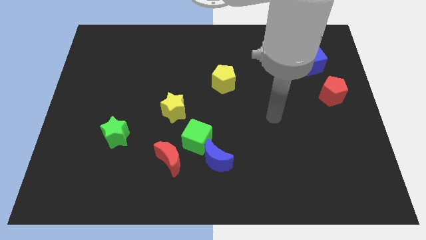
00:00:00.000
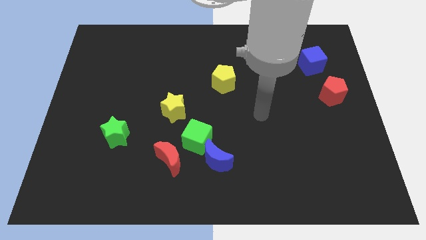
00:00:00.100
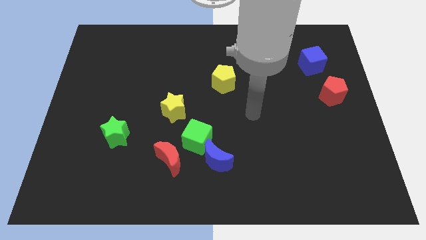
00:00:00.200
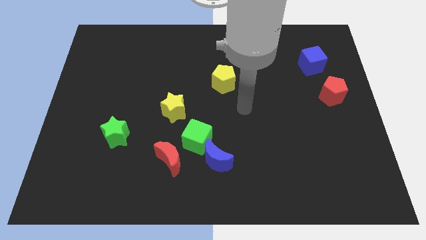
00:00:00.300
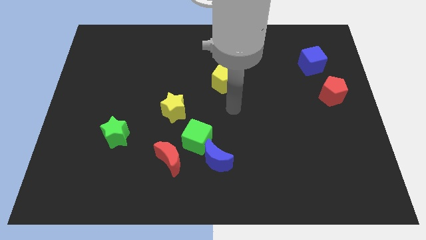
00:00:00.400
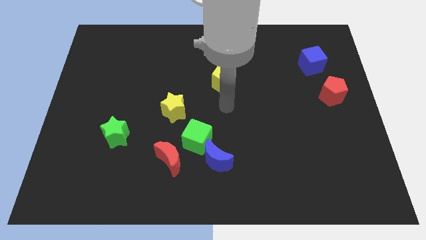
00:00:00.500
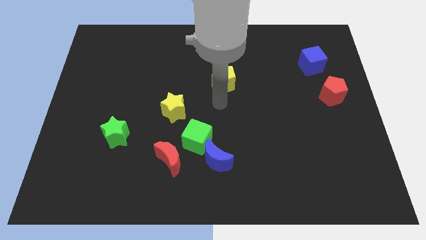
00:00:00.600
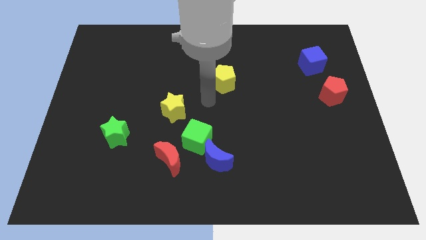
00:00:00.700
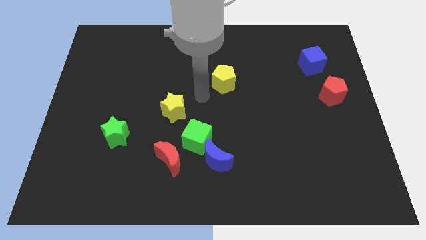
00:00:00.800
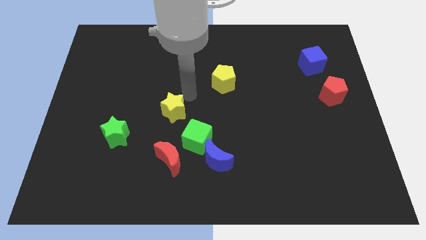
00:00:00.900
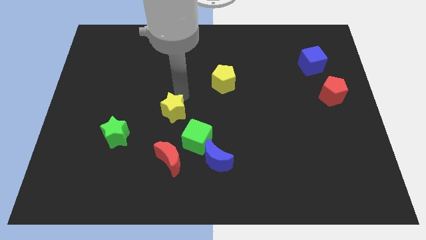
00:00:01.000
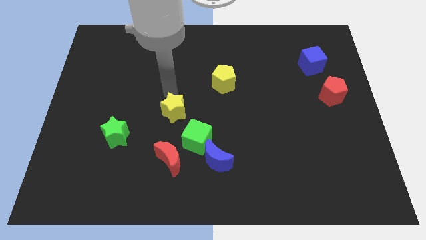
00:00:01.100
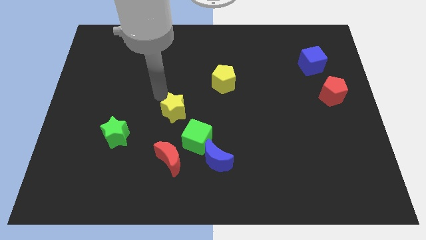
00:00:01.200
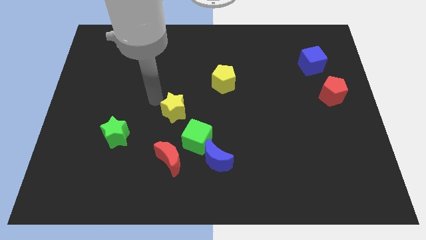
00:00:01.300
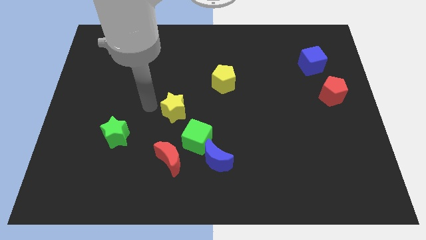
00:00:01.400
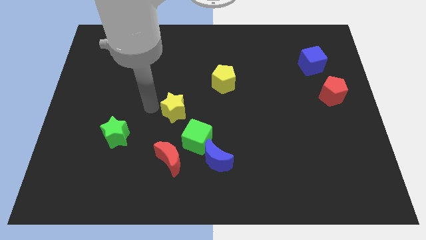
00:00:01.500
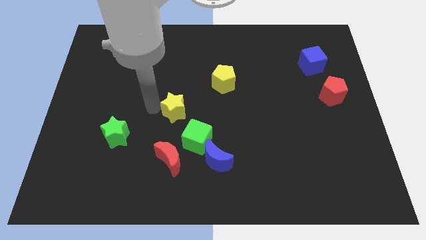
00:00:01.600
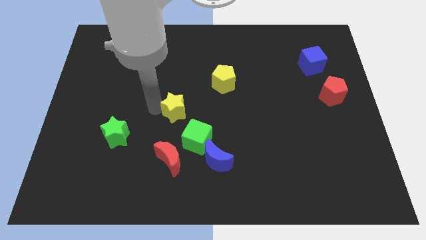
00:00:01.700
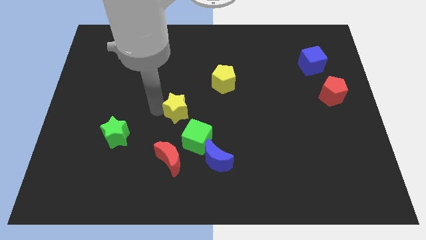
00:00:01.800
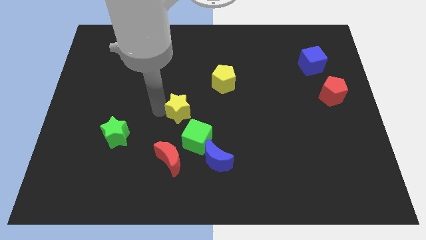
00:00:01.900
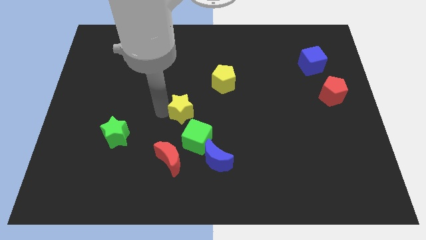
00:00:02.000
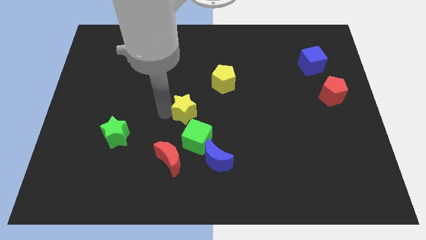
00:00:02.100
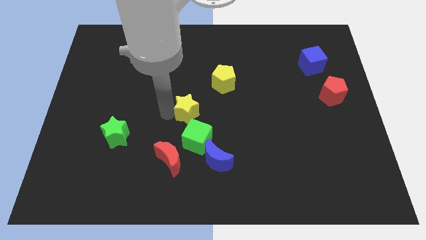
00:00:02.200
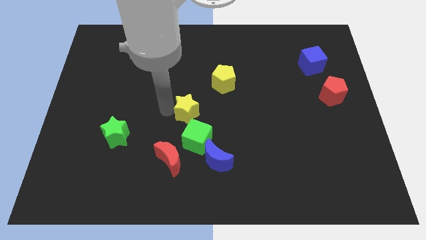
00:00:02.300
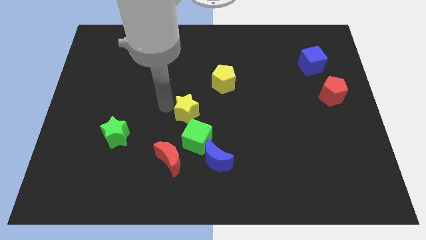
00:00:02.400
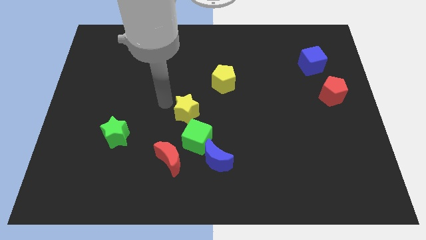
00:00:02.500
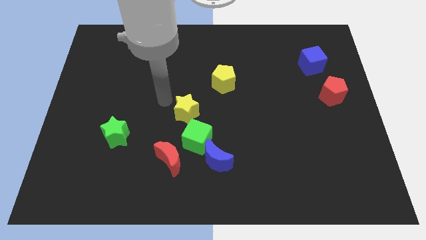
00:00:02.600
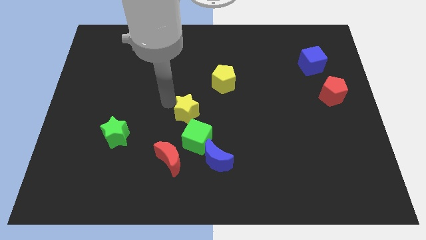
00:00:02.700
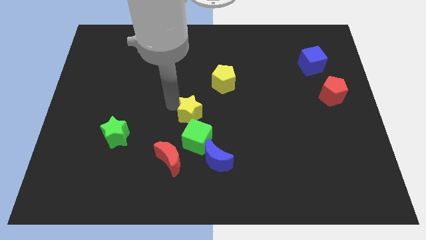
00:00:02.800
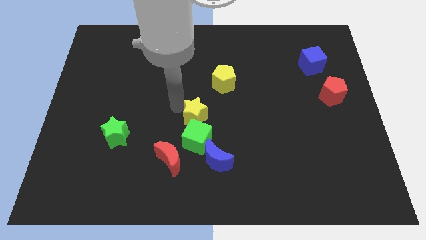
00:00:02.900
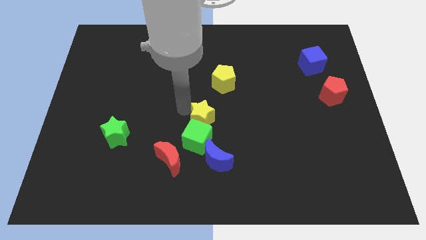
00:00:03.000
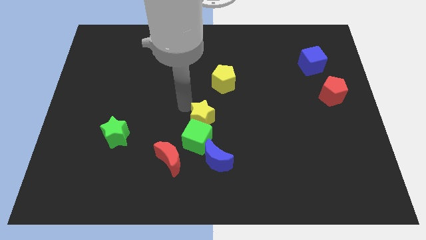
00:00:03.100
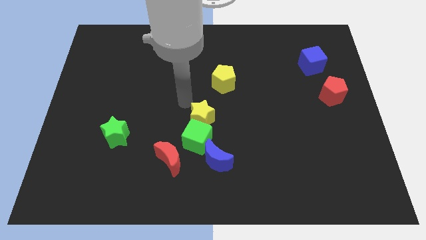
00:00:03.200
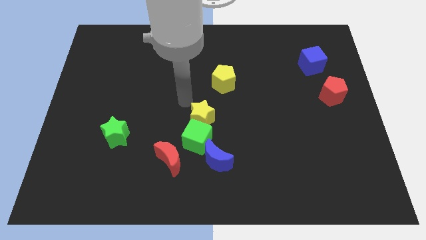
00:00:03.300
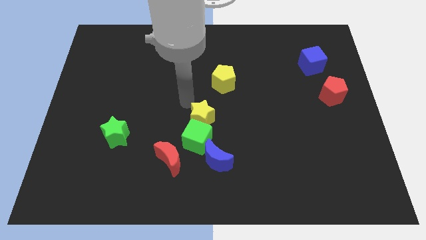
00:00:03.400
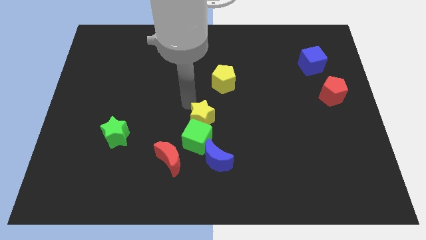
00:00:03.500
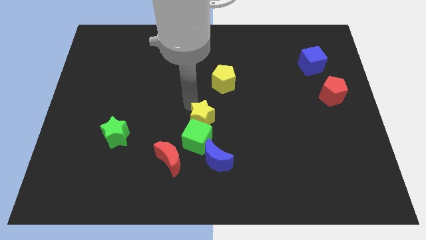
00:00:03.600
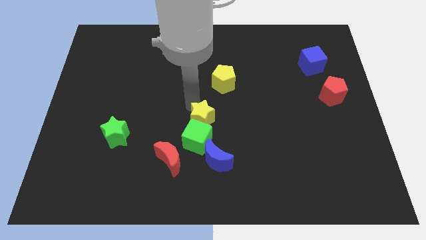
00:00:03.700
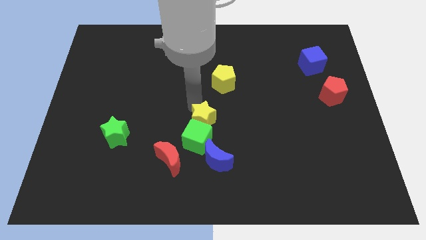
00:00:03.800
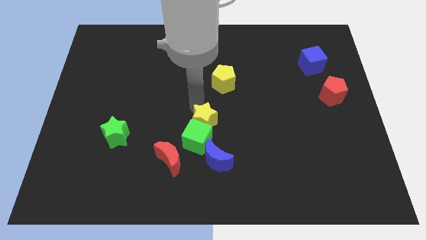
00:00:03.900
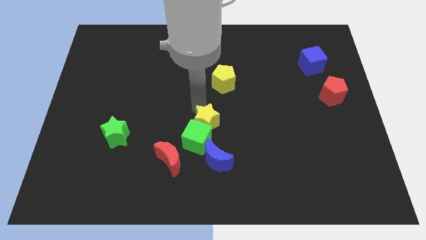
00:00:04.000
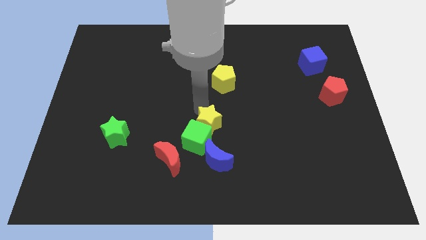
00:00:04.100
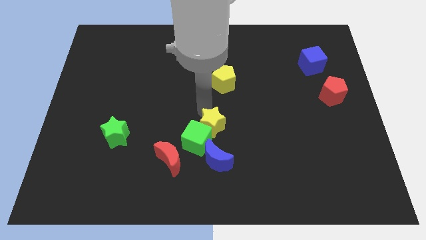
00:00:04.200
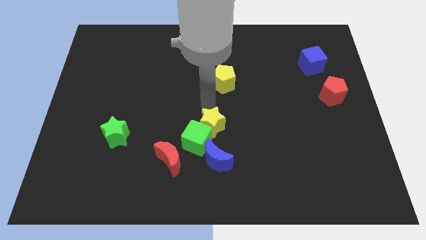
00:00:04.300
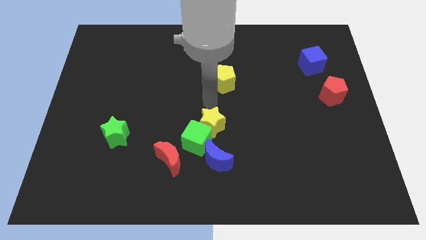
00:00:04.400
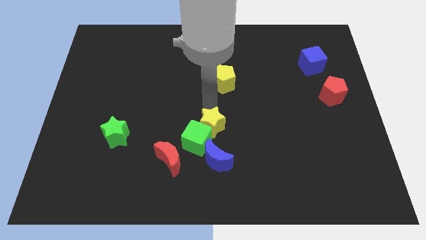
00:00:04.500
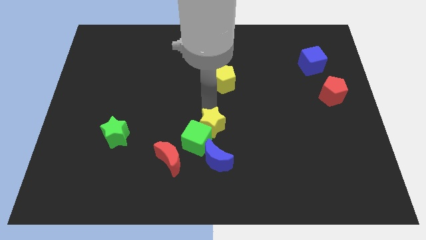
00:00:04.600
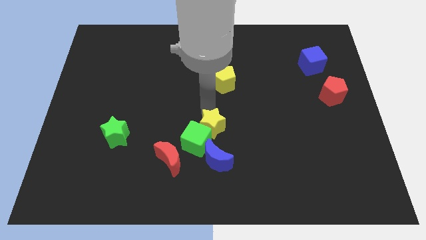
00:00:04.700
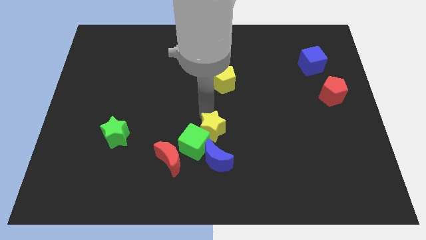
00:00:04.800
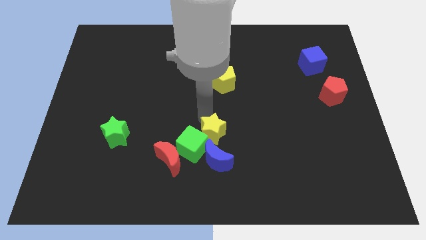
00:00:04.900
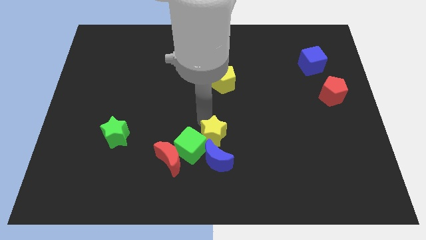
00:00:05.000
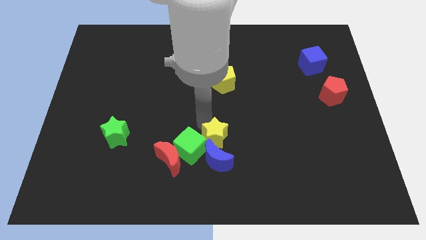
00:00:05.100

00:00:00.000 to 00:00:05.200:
put the yellow star next to the blue moon
